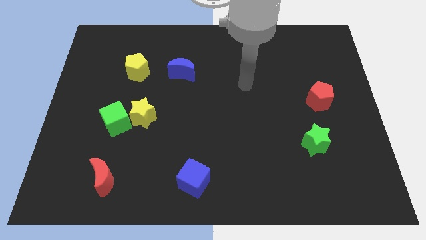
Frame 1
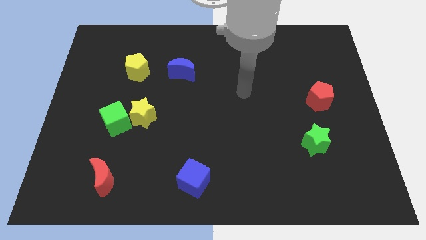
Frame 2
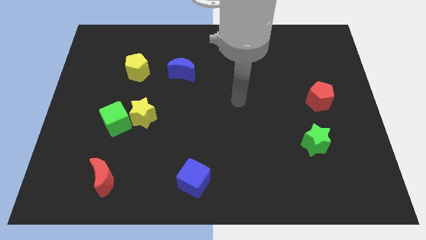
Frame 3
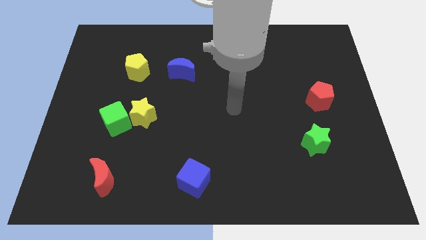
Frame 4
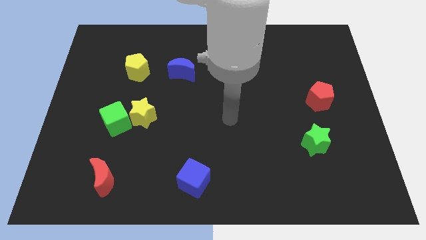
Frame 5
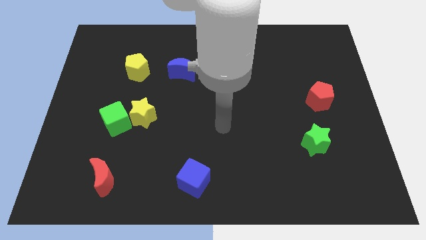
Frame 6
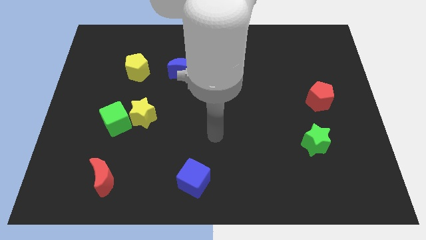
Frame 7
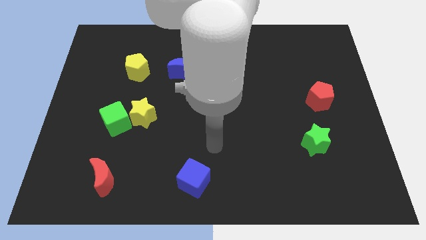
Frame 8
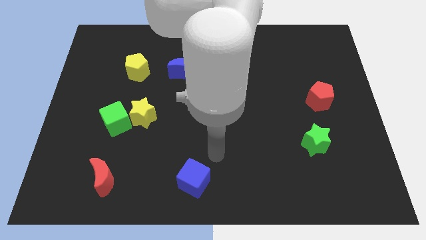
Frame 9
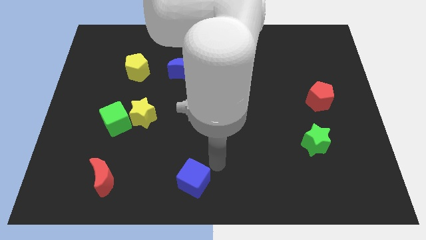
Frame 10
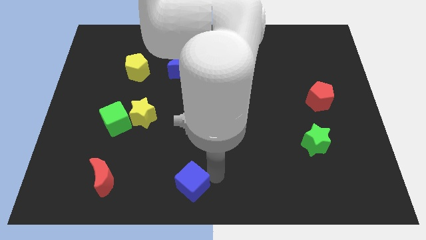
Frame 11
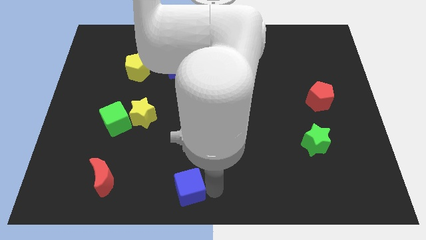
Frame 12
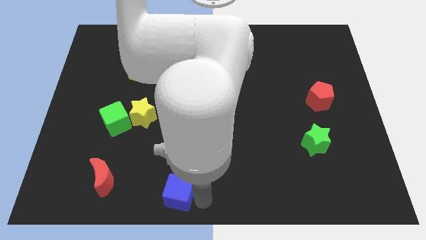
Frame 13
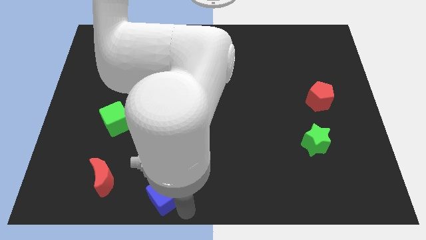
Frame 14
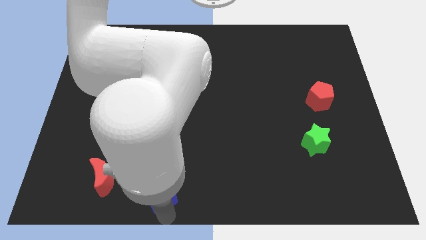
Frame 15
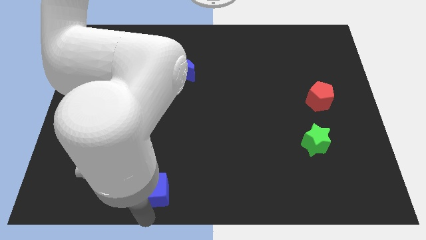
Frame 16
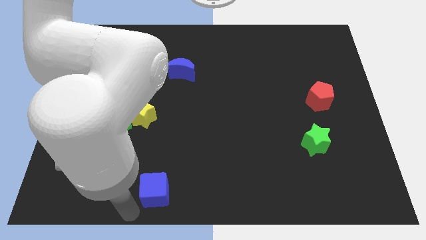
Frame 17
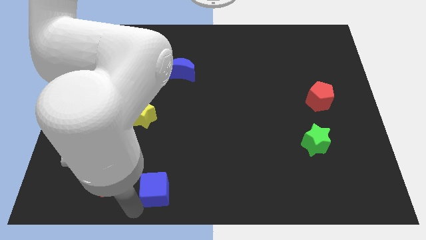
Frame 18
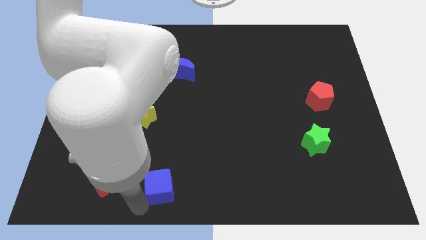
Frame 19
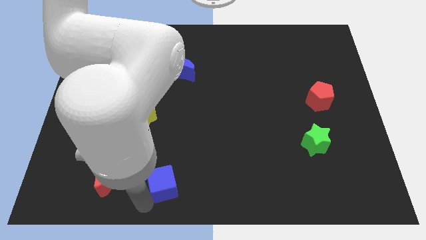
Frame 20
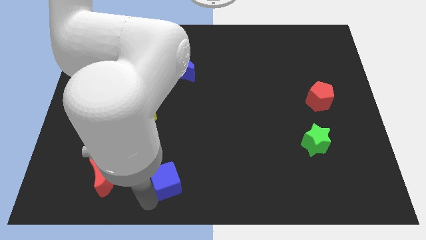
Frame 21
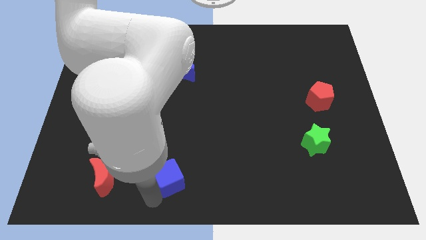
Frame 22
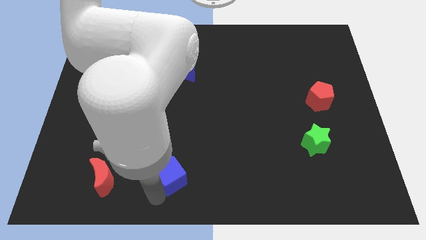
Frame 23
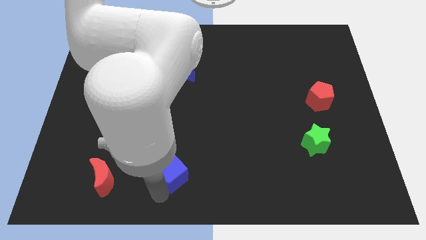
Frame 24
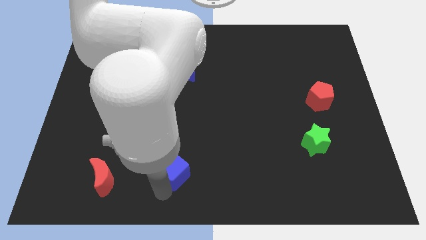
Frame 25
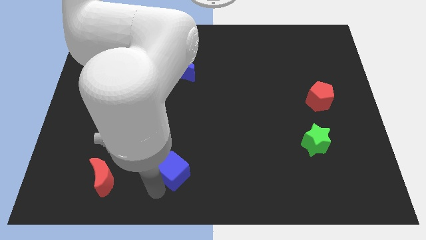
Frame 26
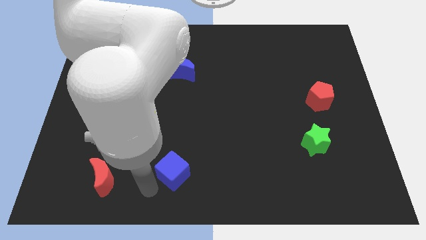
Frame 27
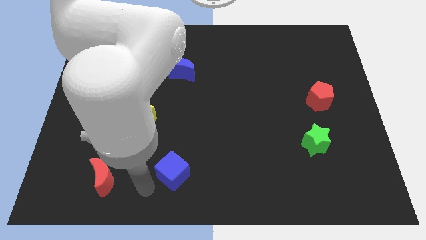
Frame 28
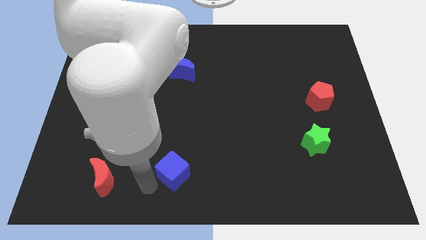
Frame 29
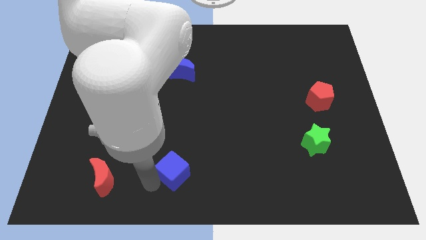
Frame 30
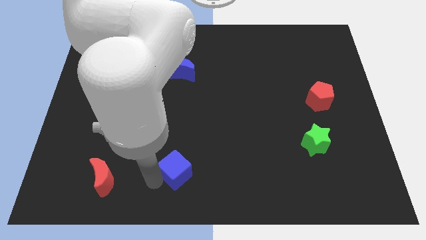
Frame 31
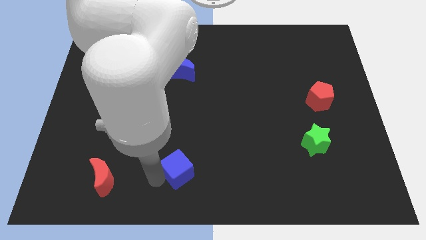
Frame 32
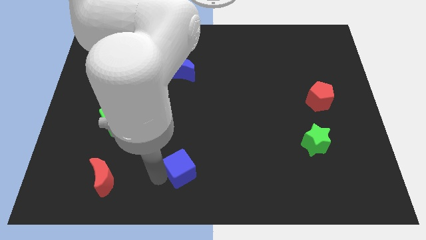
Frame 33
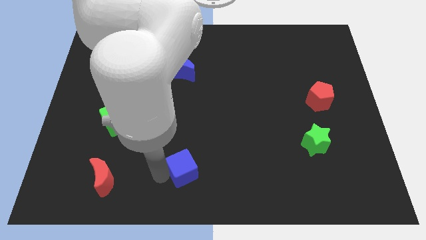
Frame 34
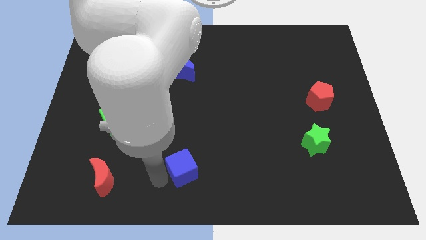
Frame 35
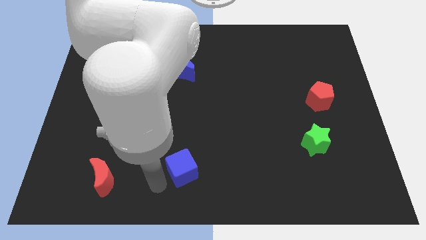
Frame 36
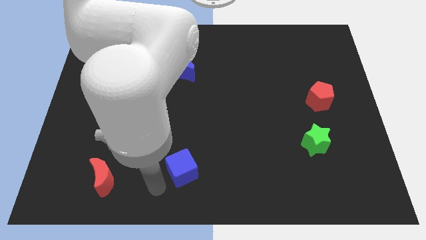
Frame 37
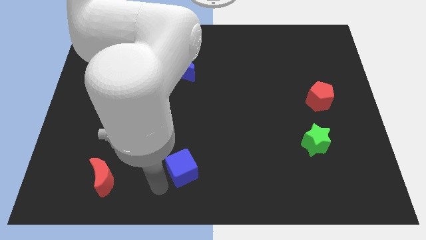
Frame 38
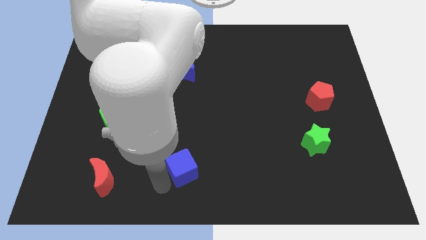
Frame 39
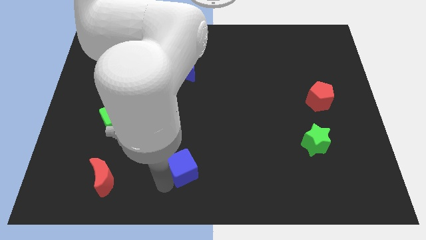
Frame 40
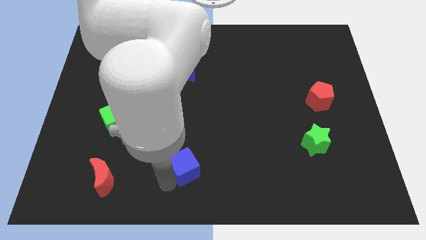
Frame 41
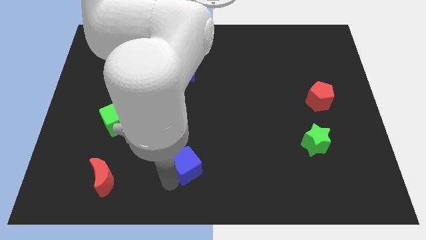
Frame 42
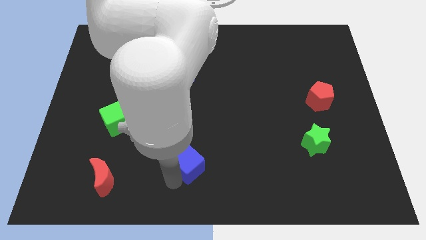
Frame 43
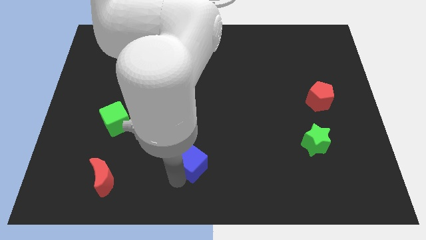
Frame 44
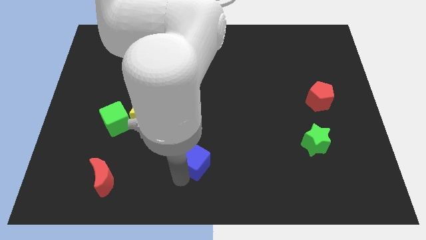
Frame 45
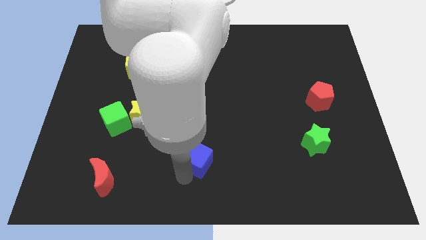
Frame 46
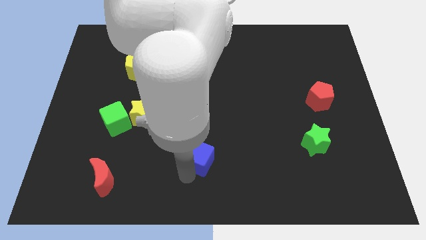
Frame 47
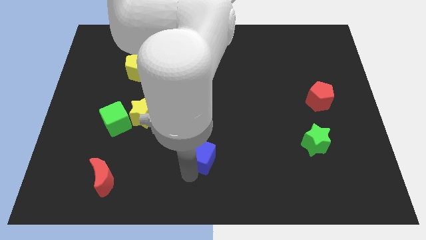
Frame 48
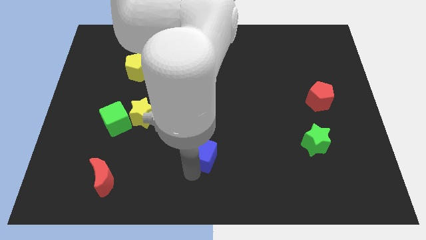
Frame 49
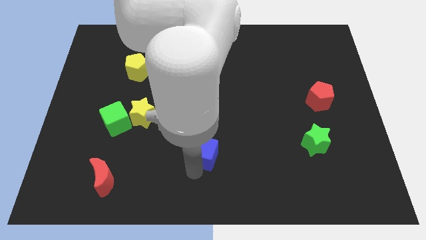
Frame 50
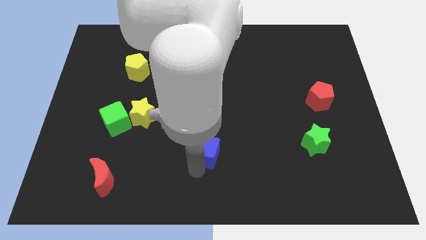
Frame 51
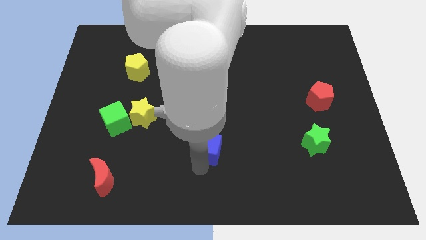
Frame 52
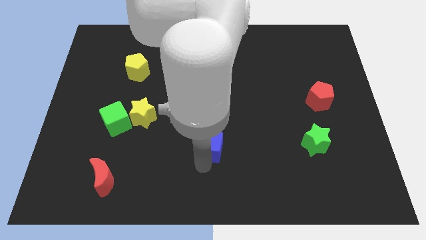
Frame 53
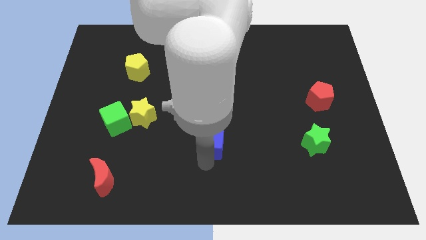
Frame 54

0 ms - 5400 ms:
push the blue cube to the middle
